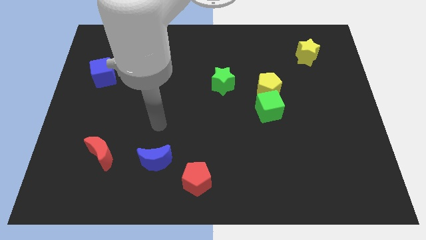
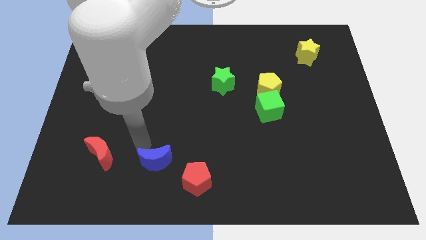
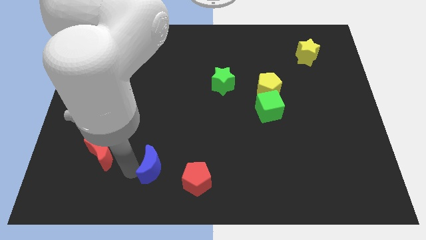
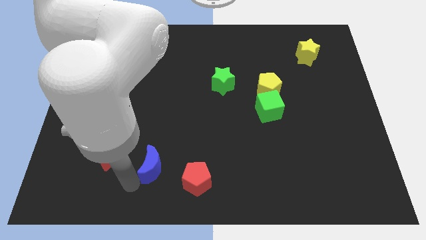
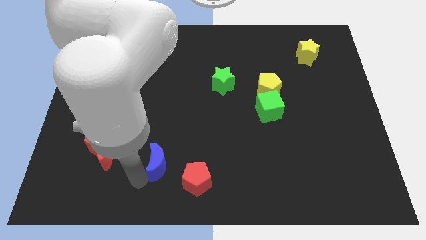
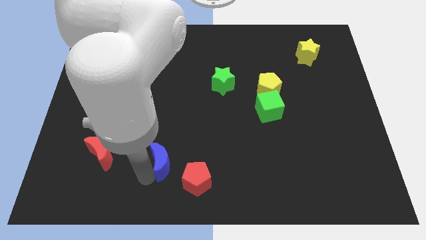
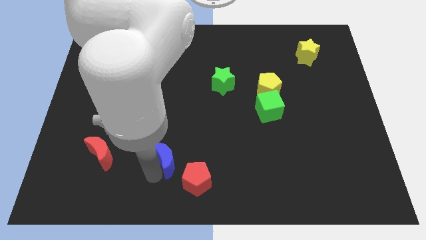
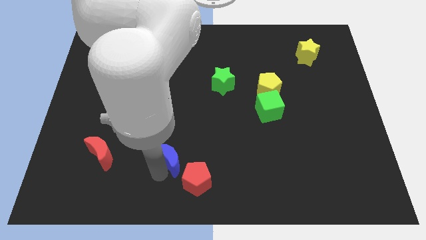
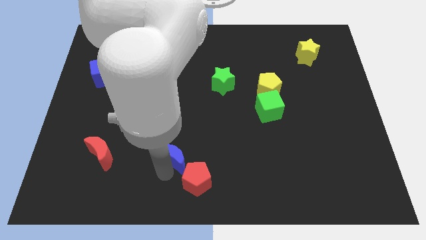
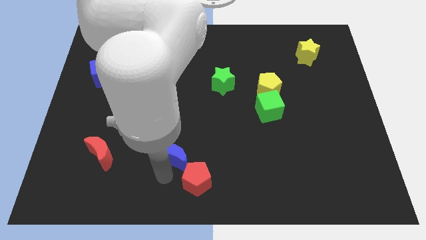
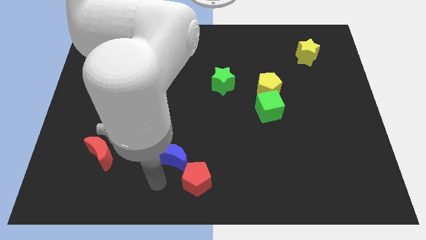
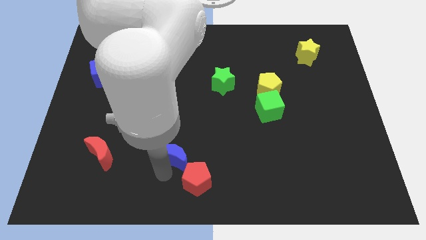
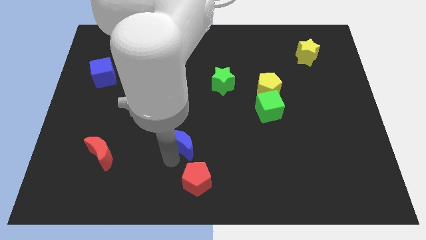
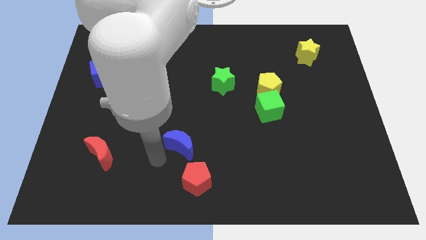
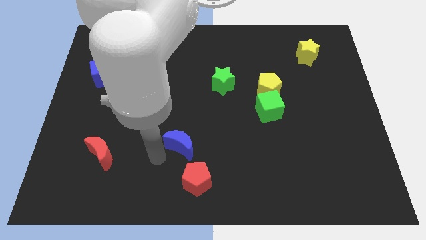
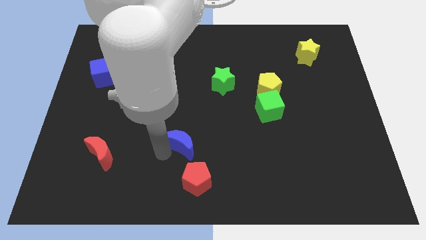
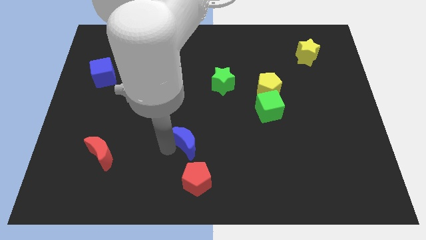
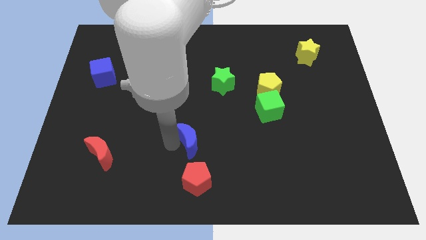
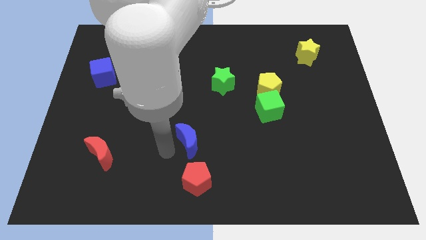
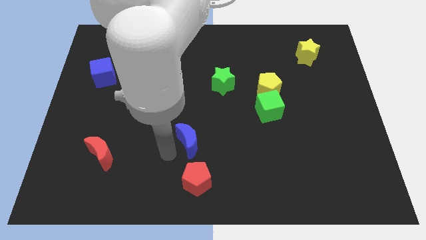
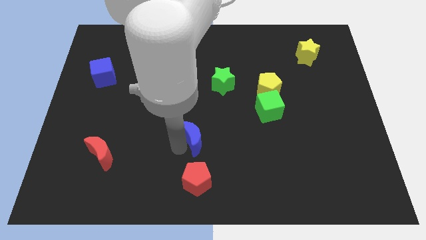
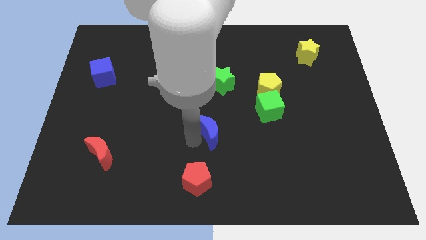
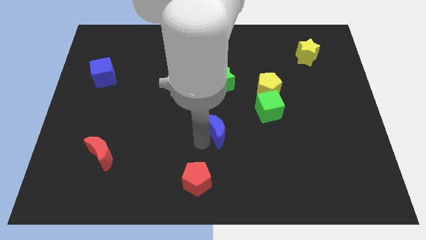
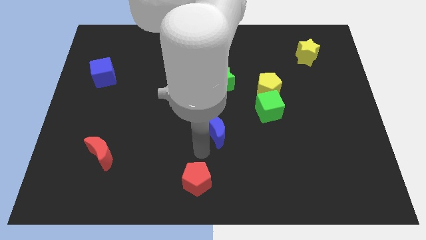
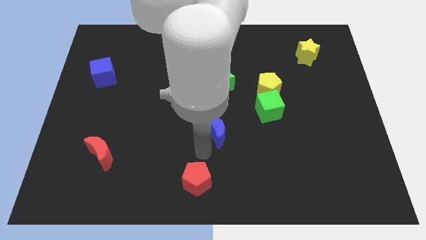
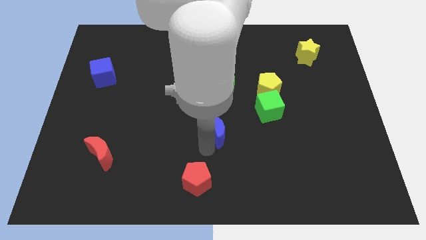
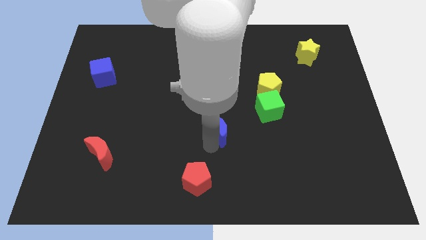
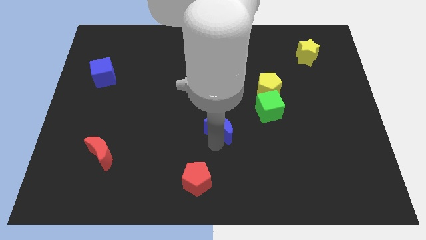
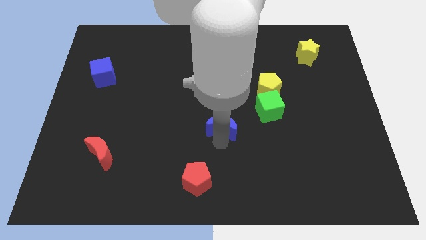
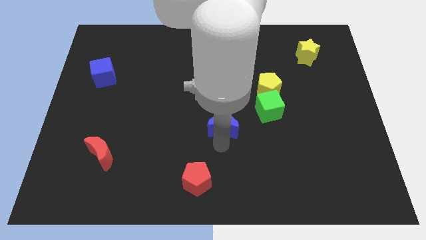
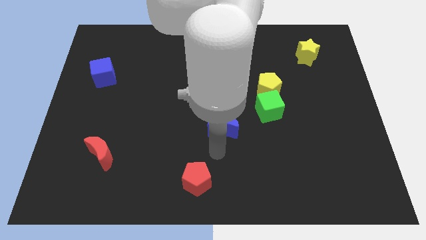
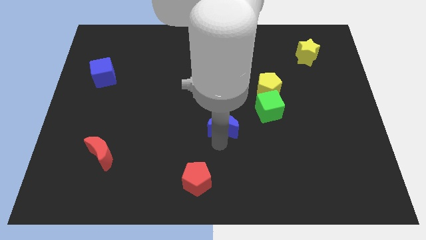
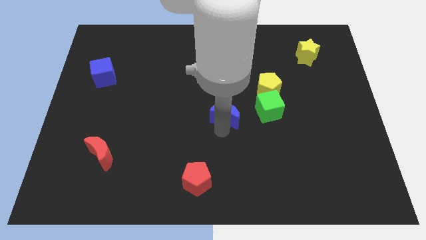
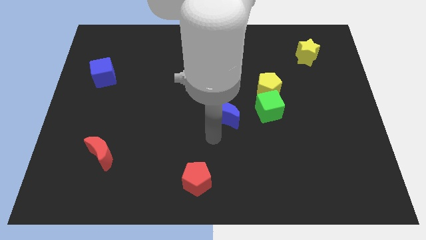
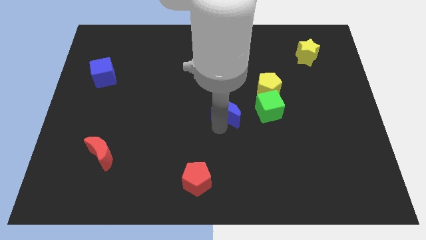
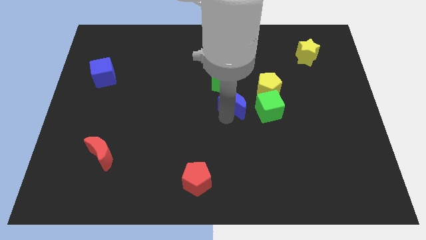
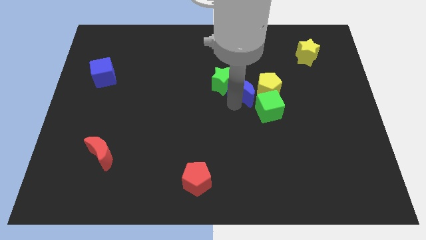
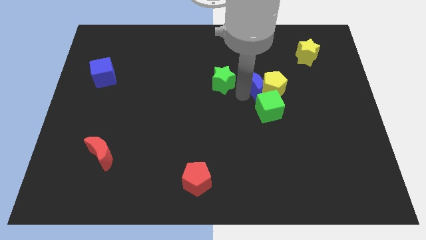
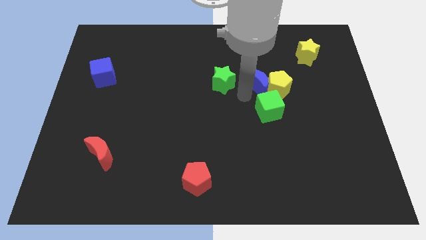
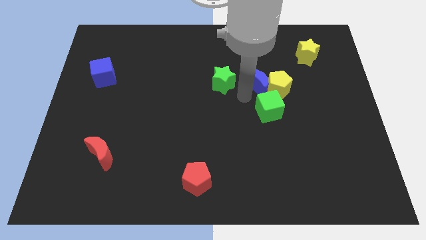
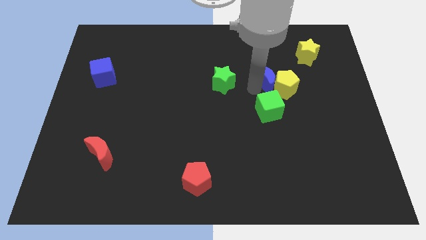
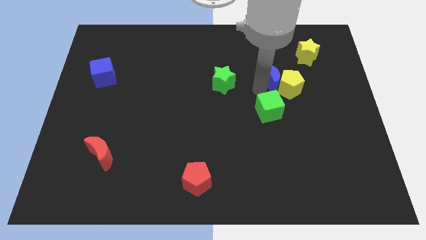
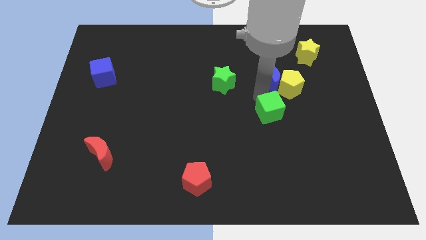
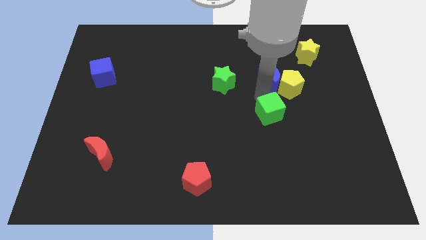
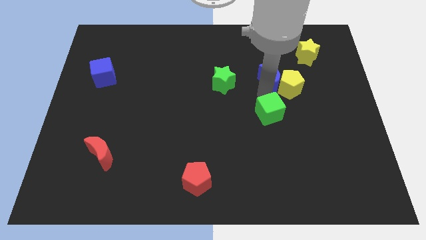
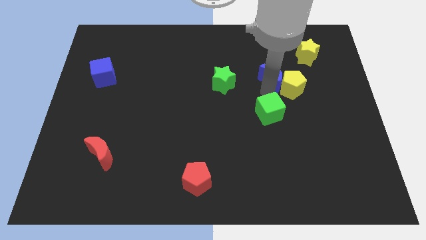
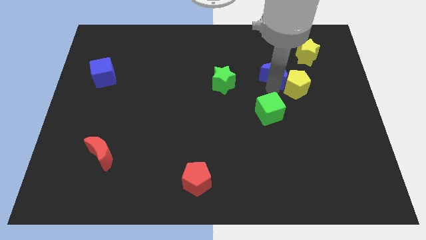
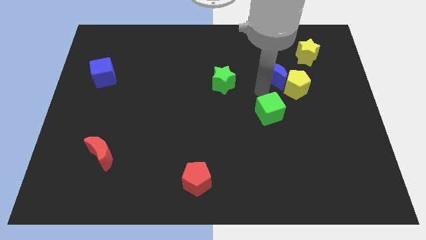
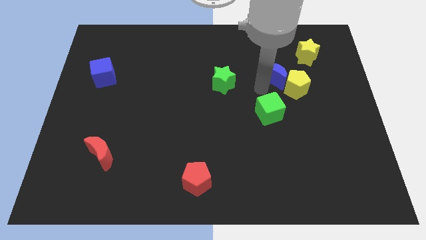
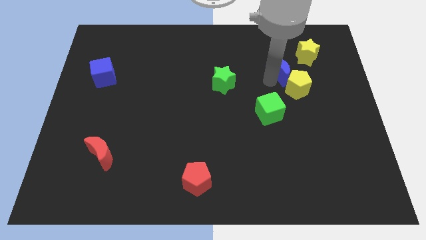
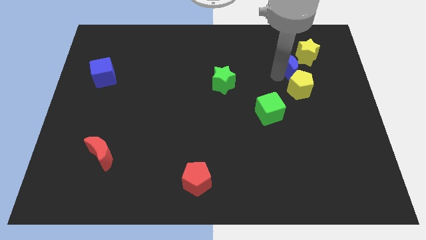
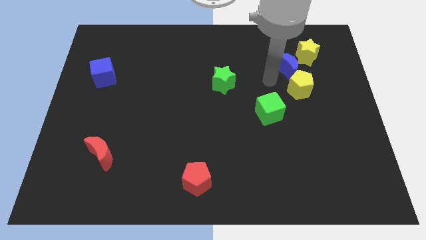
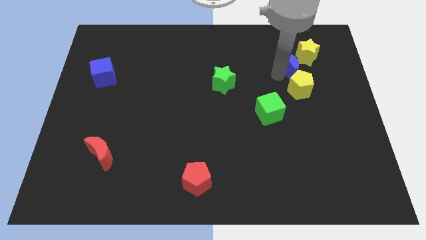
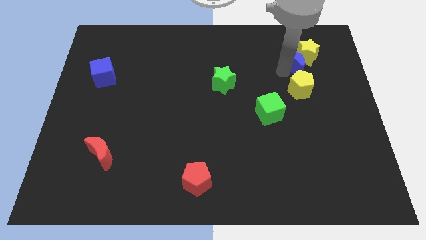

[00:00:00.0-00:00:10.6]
move the blue moon to the yellow star

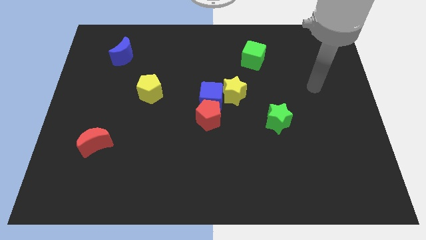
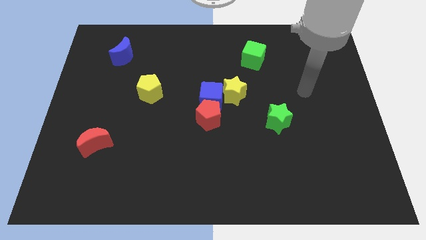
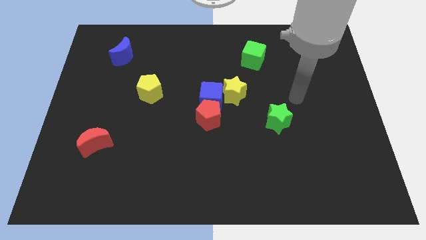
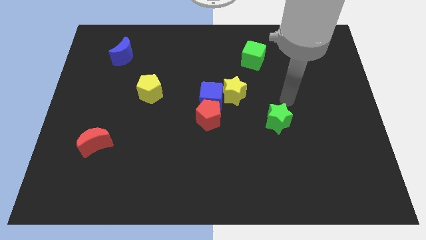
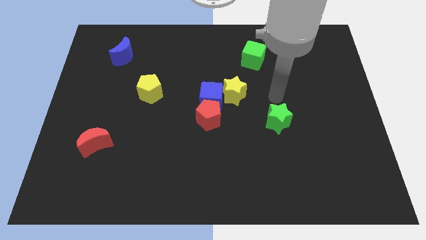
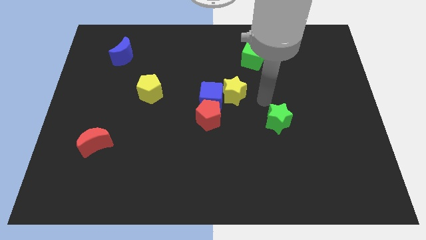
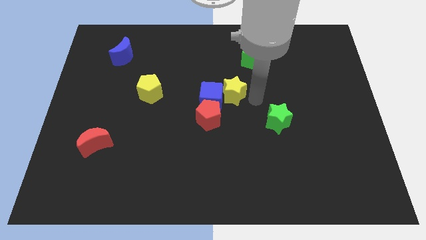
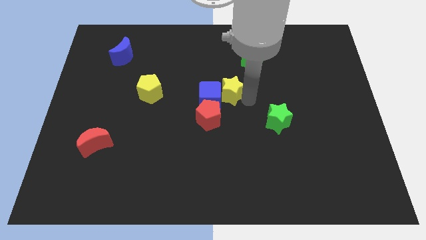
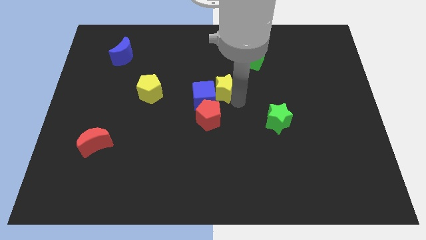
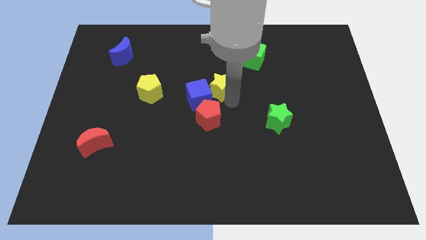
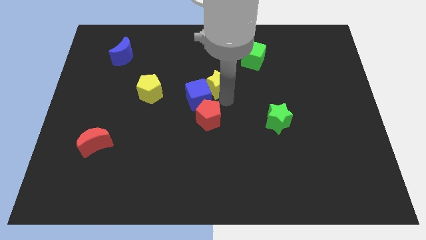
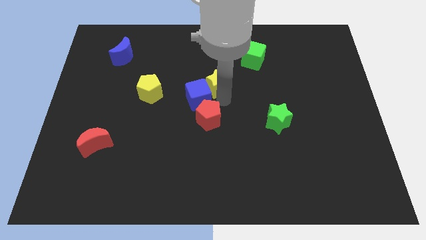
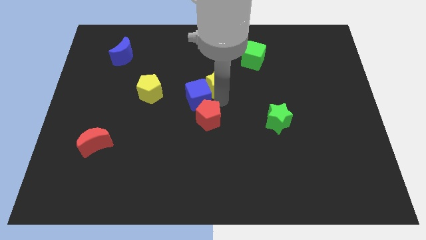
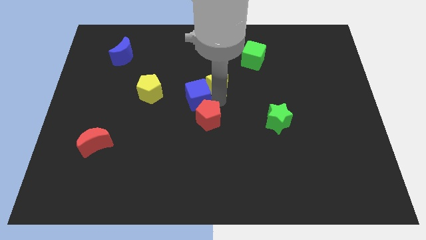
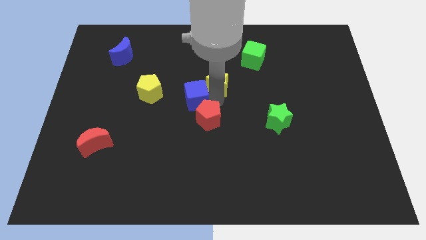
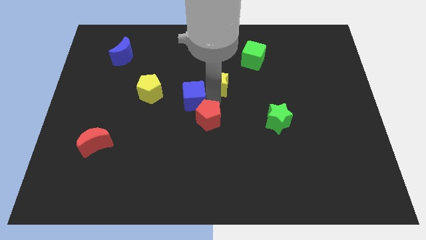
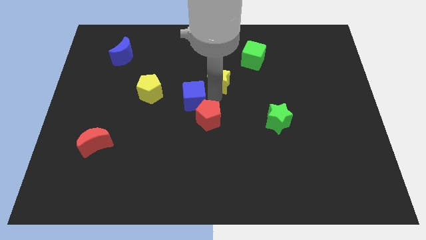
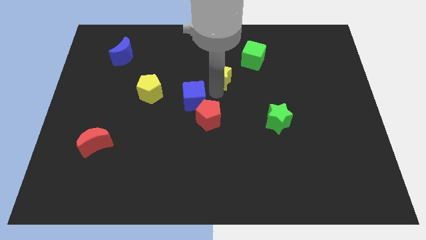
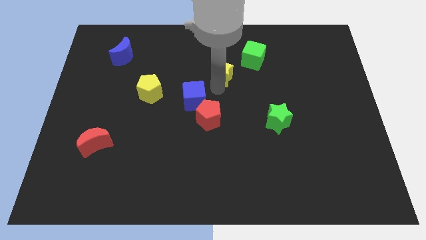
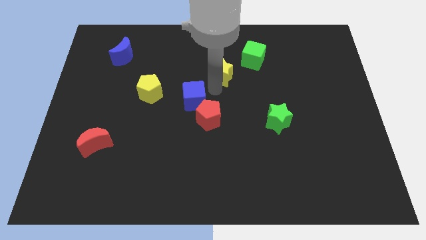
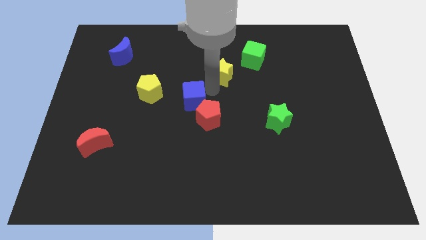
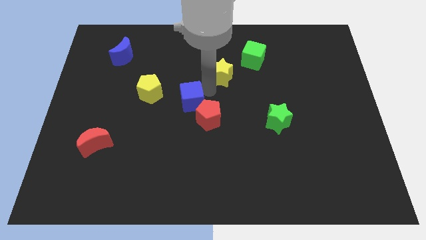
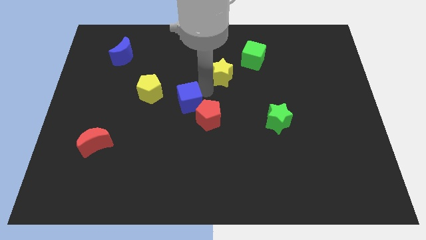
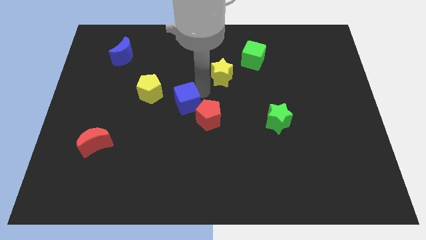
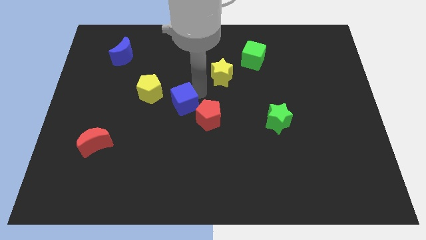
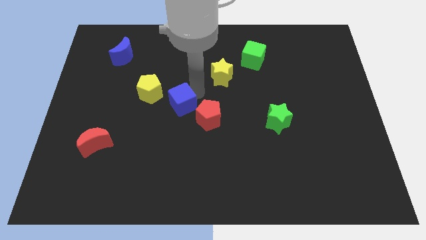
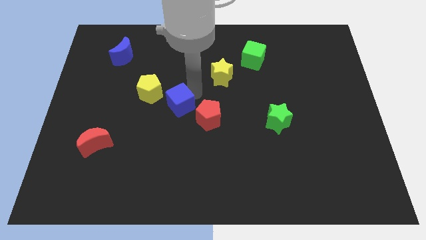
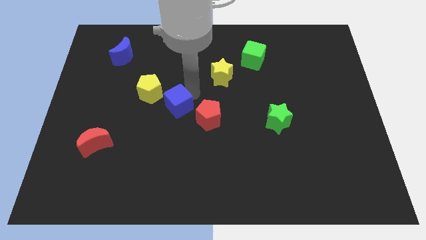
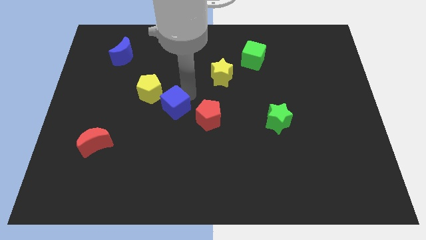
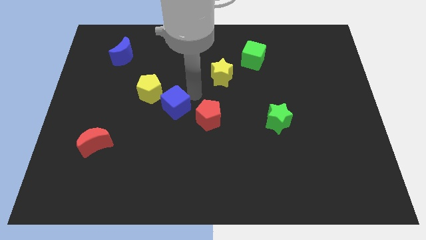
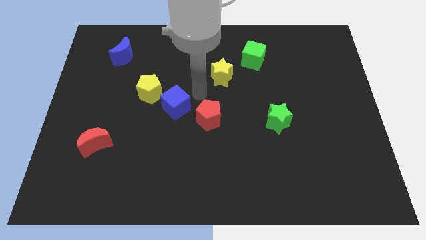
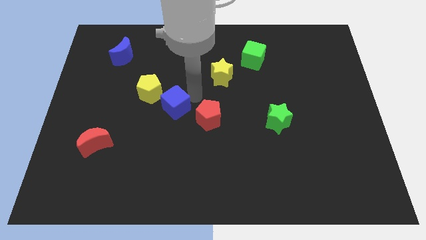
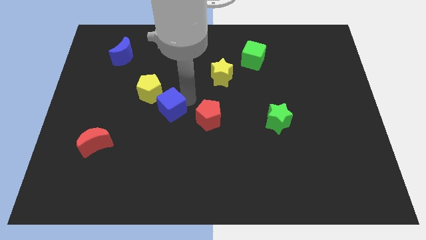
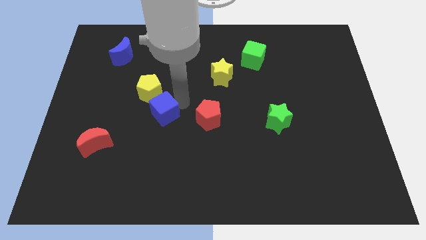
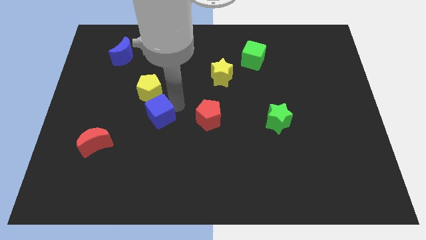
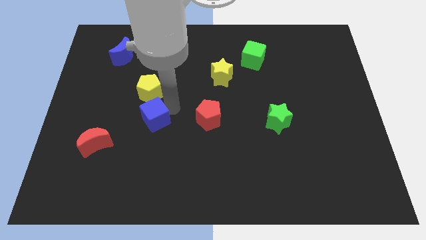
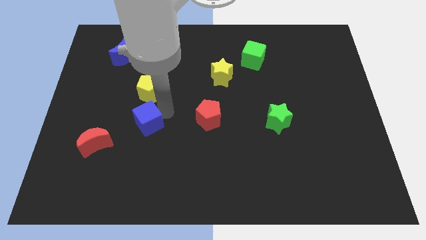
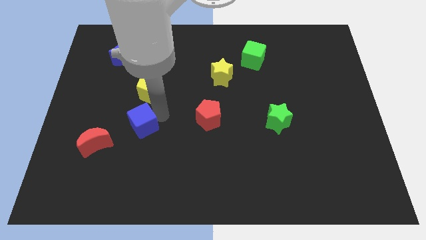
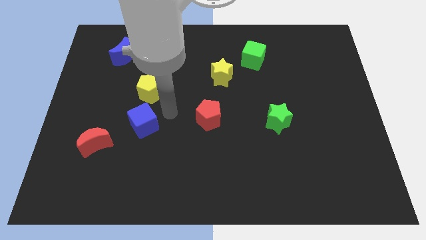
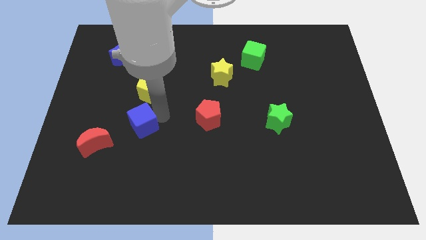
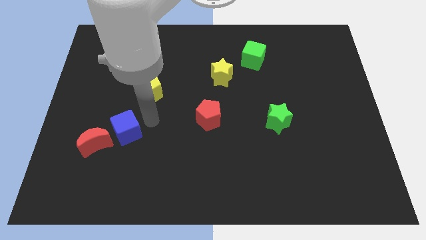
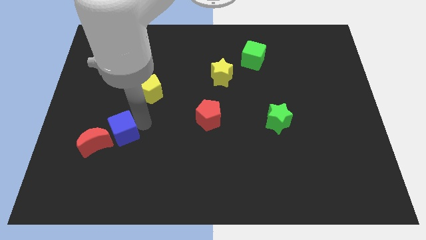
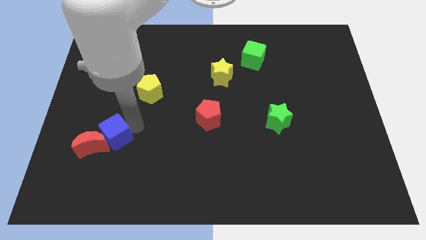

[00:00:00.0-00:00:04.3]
slide the blue cube towards the red moon
